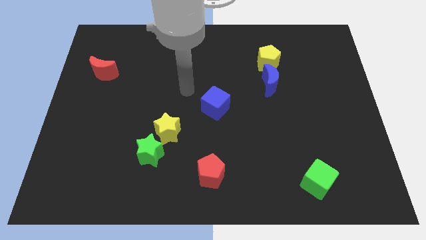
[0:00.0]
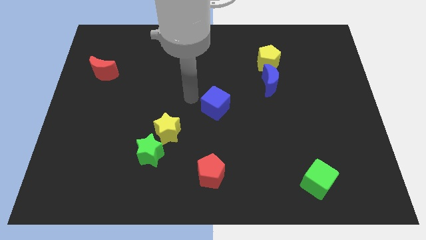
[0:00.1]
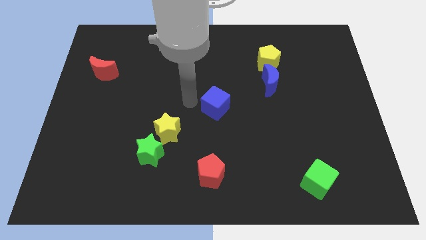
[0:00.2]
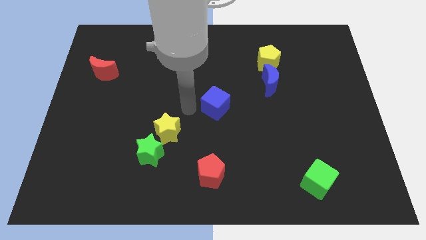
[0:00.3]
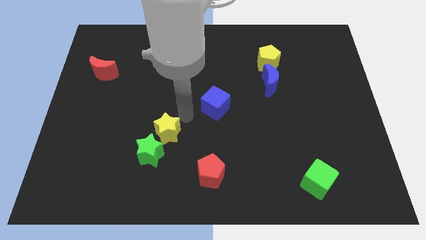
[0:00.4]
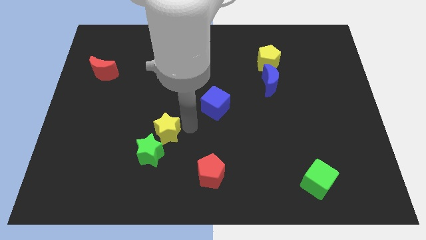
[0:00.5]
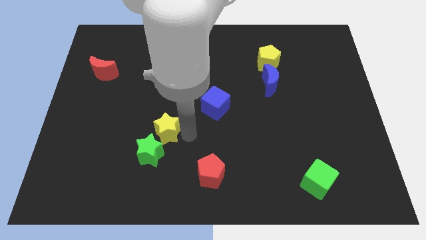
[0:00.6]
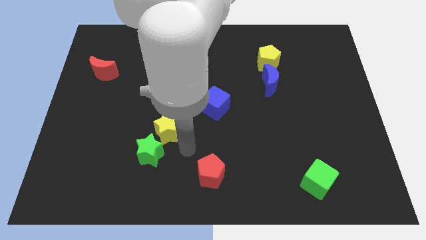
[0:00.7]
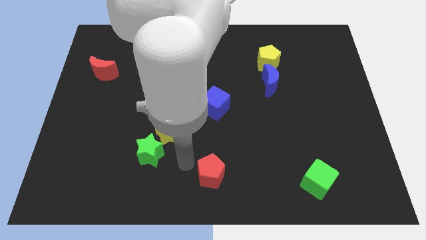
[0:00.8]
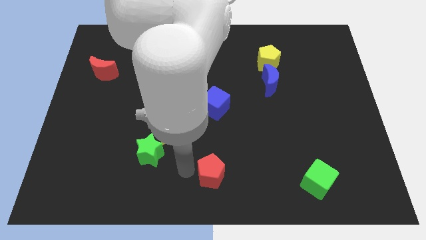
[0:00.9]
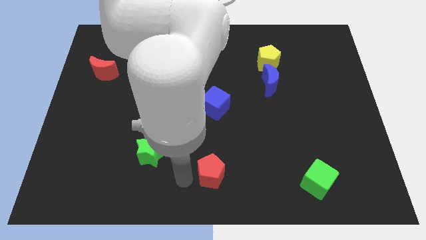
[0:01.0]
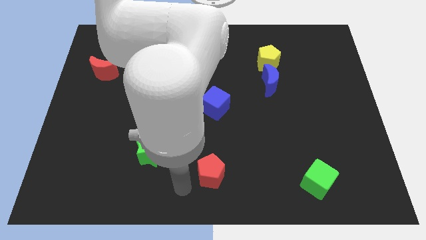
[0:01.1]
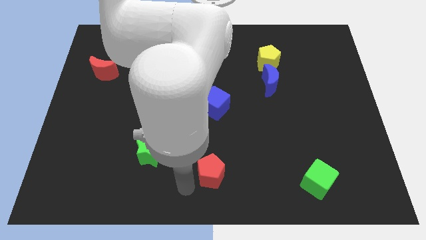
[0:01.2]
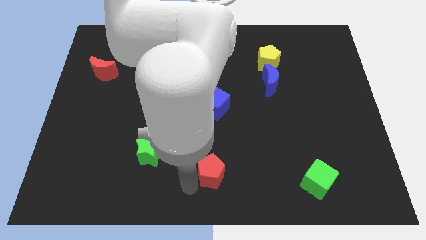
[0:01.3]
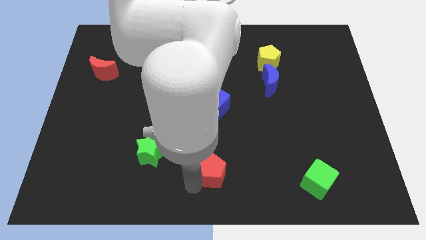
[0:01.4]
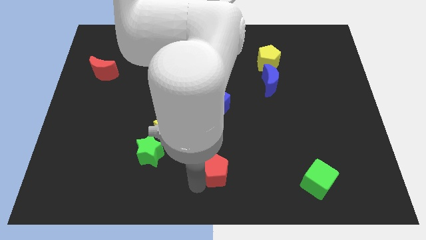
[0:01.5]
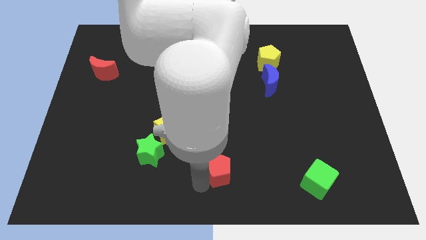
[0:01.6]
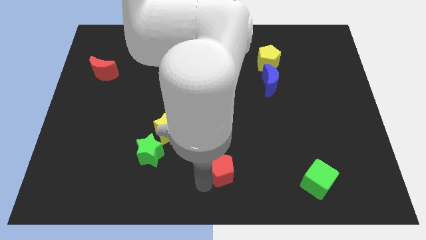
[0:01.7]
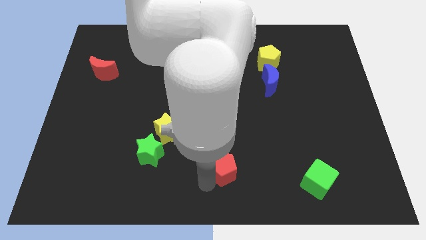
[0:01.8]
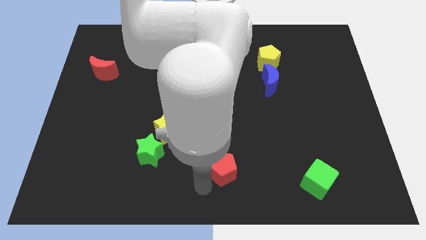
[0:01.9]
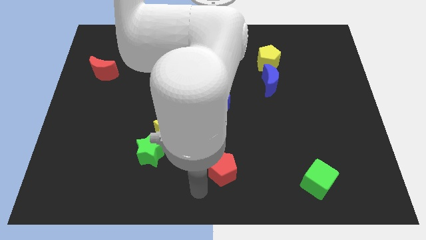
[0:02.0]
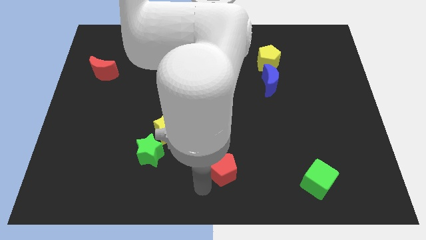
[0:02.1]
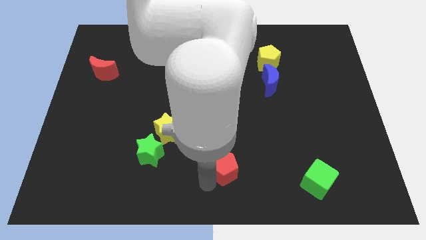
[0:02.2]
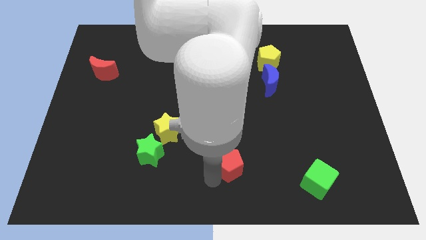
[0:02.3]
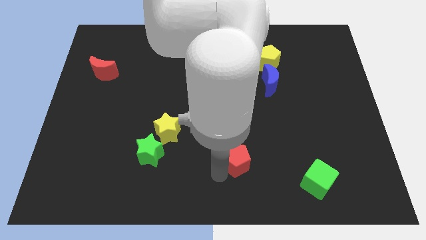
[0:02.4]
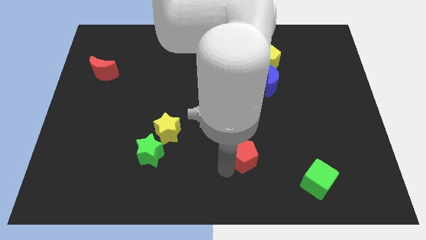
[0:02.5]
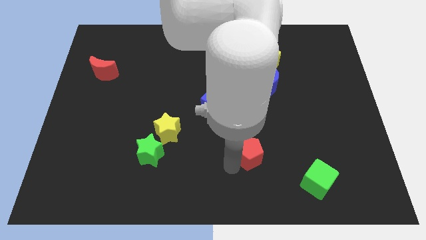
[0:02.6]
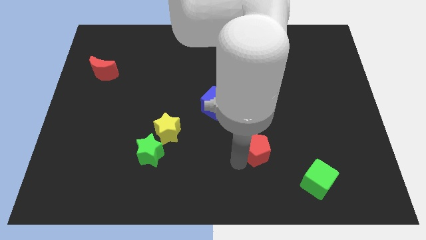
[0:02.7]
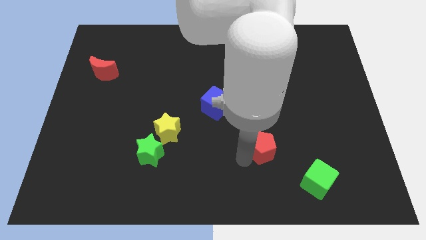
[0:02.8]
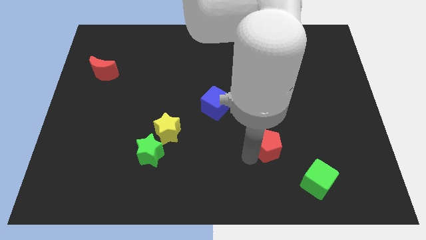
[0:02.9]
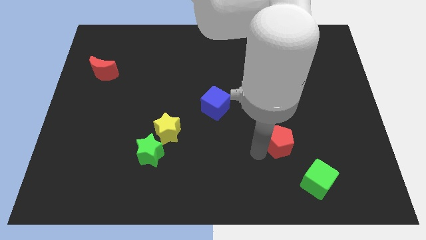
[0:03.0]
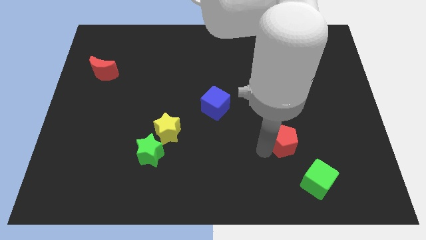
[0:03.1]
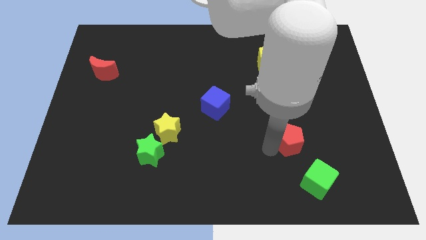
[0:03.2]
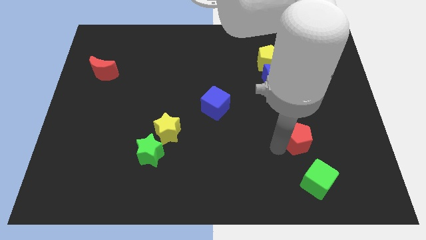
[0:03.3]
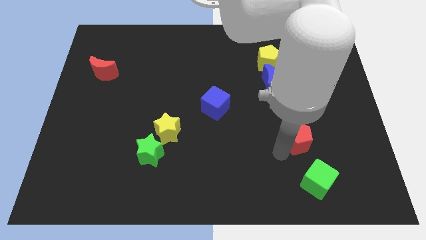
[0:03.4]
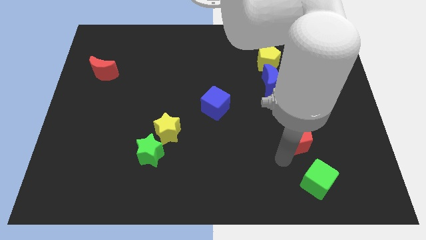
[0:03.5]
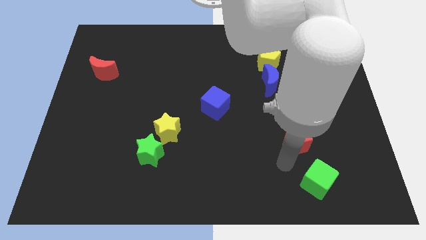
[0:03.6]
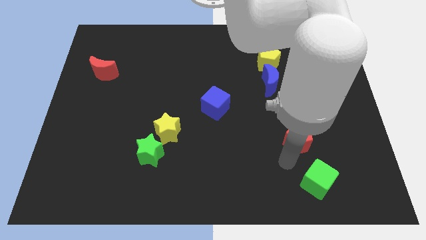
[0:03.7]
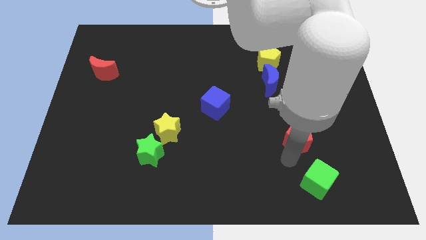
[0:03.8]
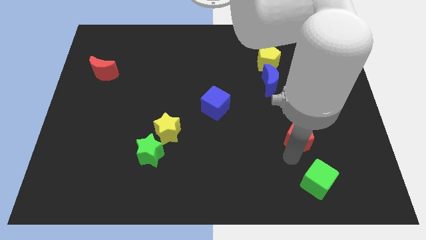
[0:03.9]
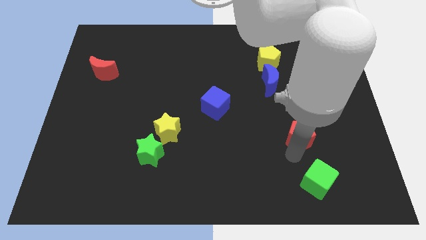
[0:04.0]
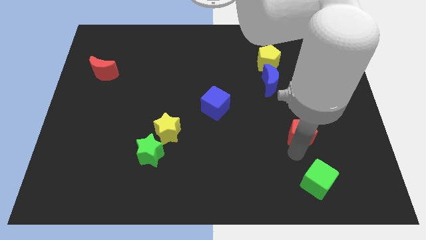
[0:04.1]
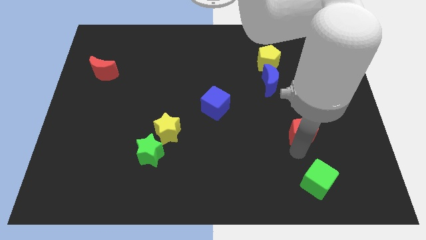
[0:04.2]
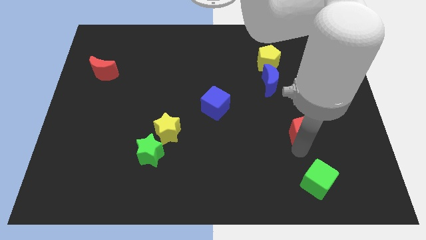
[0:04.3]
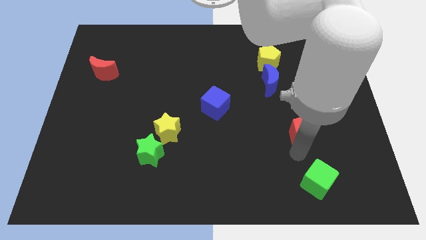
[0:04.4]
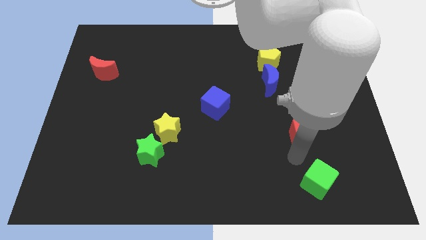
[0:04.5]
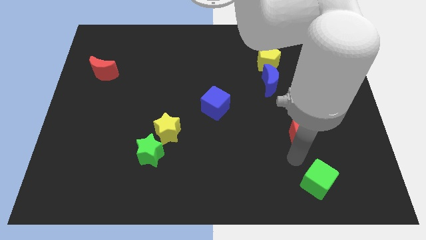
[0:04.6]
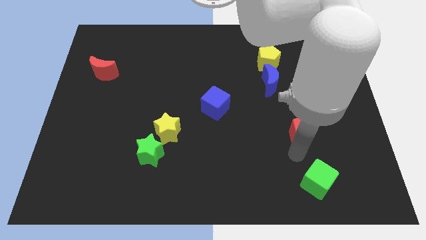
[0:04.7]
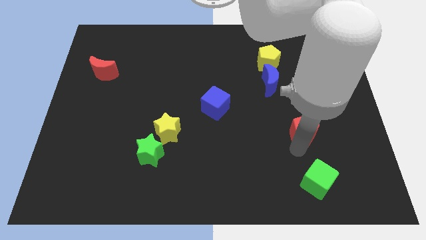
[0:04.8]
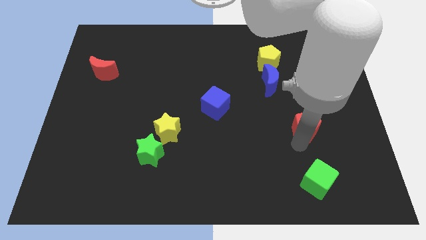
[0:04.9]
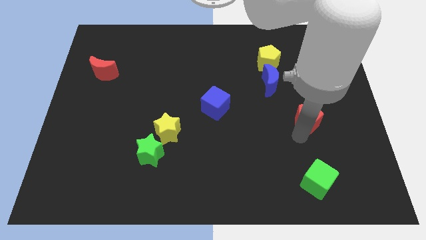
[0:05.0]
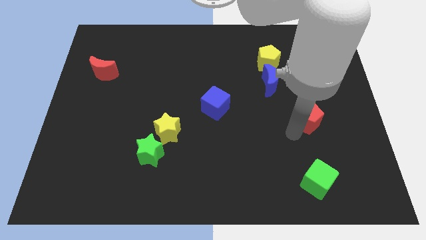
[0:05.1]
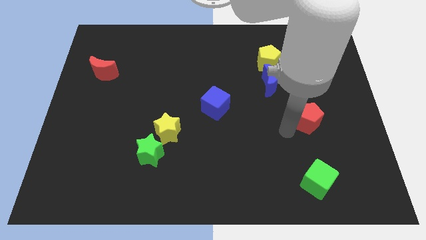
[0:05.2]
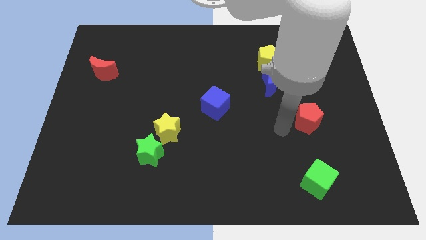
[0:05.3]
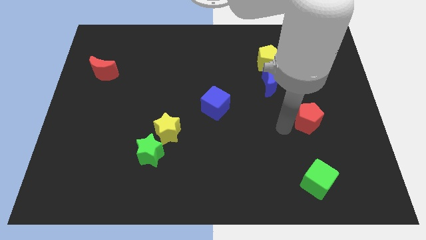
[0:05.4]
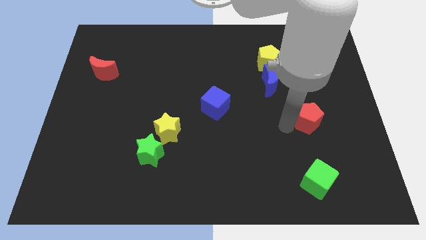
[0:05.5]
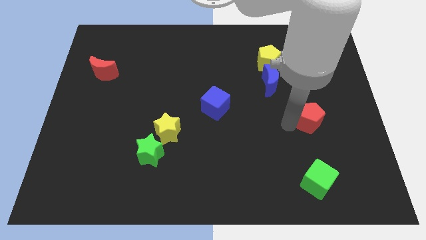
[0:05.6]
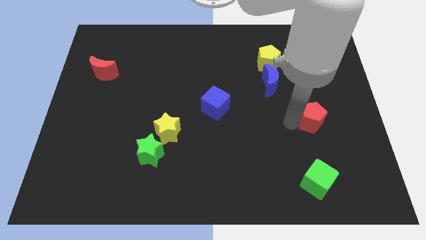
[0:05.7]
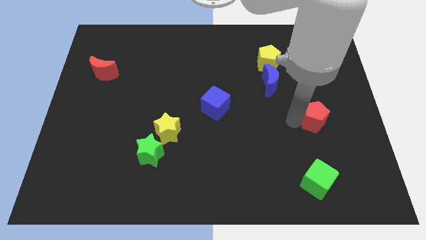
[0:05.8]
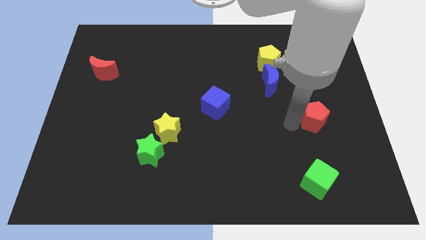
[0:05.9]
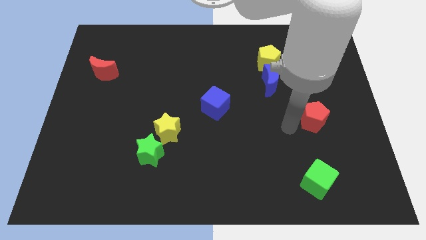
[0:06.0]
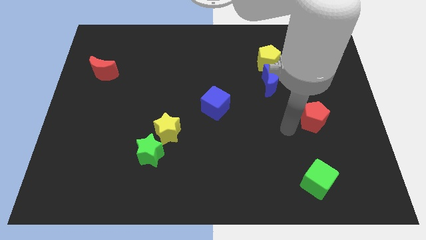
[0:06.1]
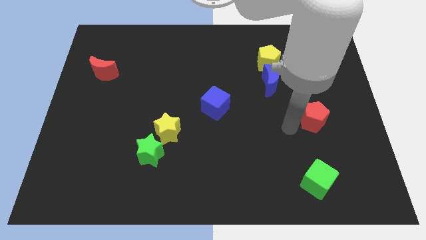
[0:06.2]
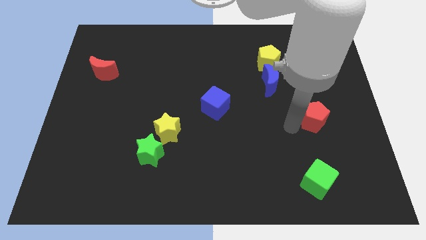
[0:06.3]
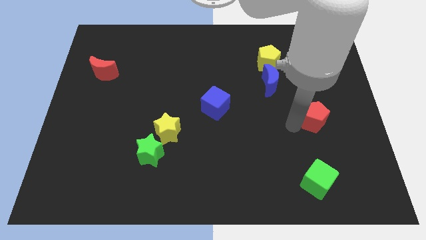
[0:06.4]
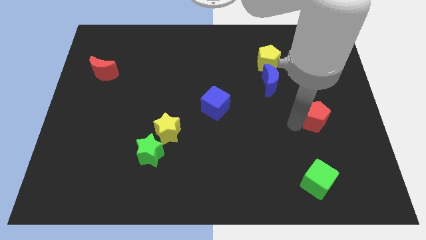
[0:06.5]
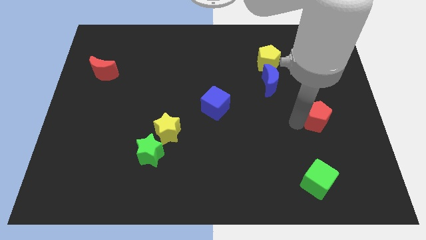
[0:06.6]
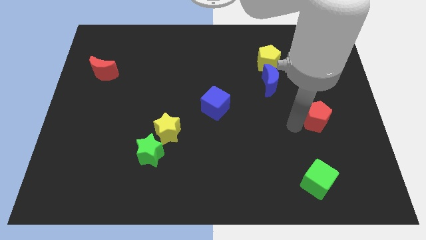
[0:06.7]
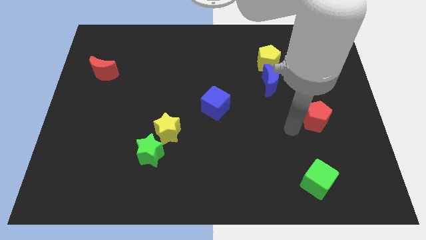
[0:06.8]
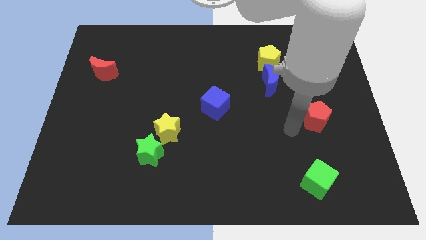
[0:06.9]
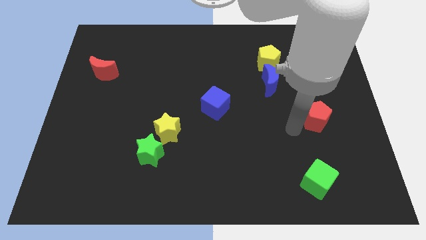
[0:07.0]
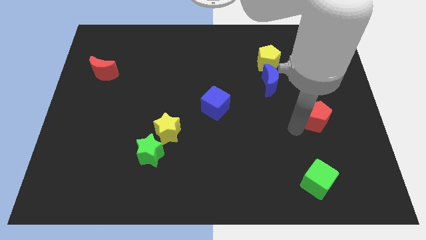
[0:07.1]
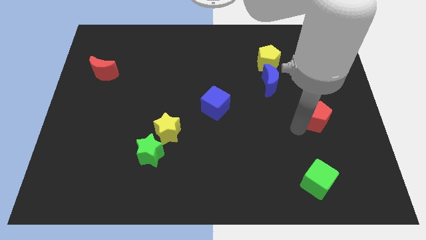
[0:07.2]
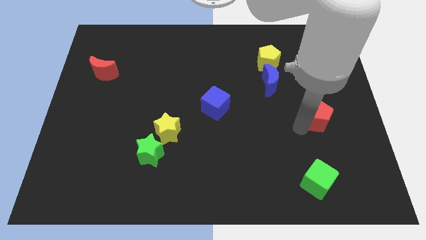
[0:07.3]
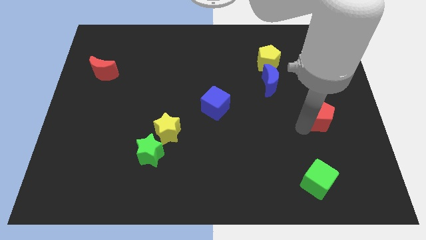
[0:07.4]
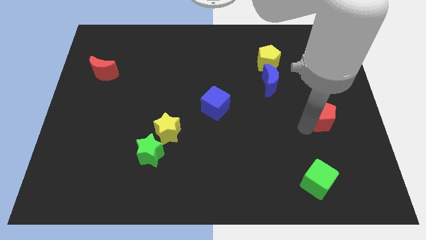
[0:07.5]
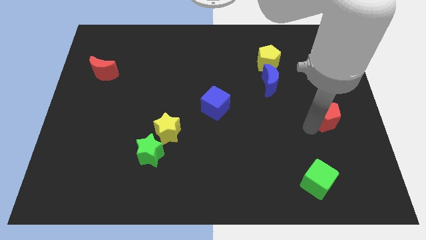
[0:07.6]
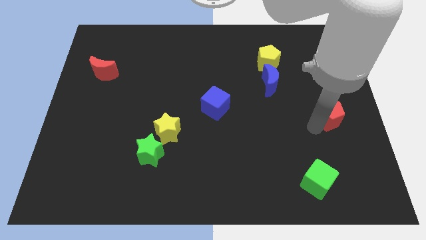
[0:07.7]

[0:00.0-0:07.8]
put the red pentagon to the right side of the board
